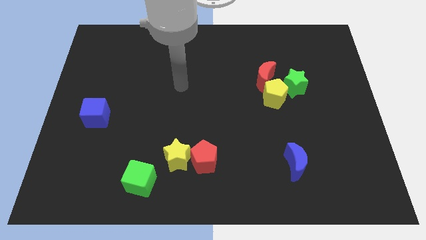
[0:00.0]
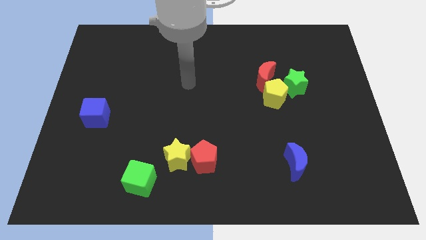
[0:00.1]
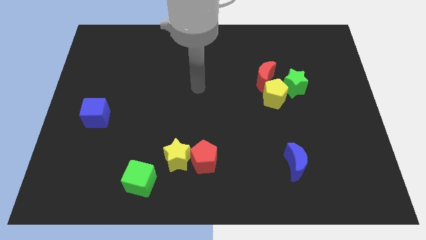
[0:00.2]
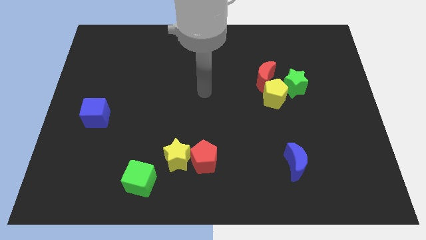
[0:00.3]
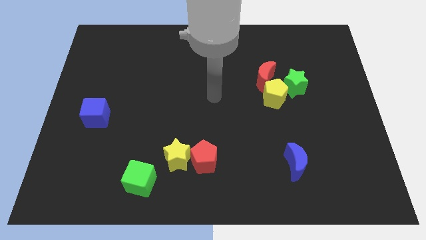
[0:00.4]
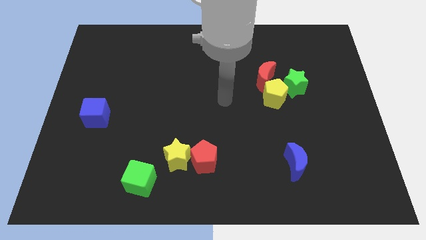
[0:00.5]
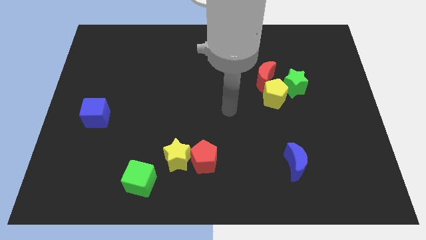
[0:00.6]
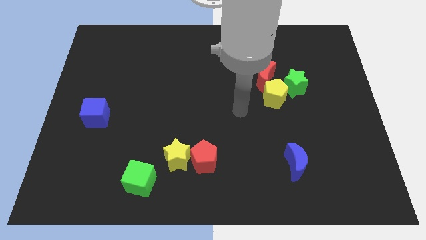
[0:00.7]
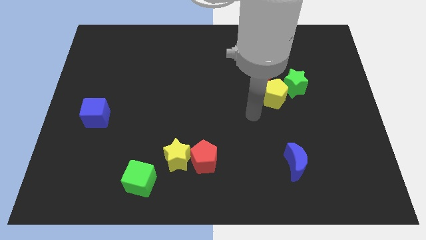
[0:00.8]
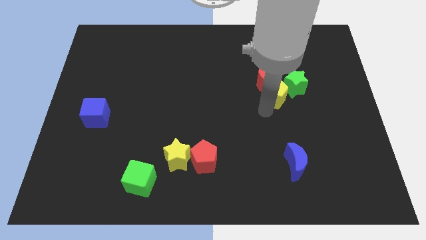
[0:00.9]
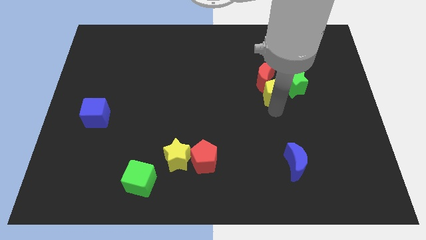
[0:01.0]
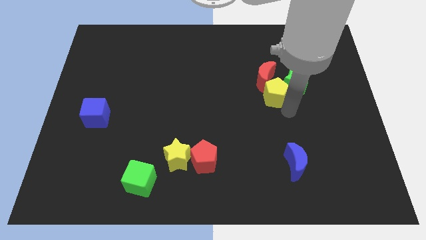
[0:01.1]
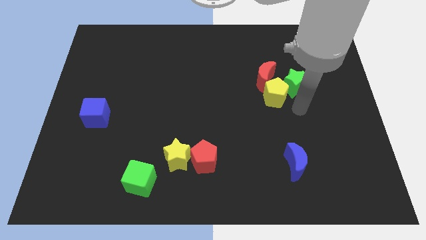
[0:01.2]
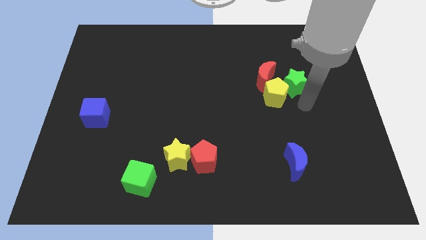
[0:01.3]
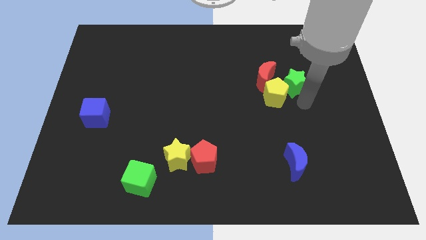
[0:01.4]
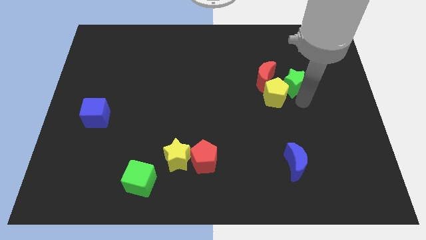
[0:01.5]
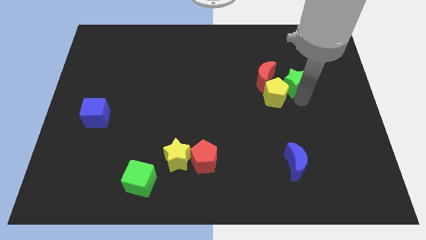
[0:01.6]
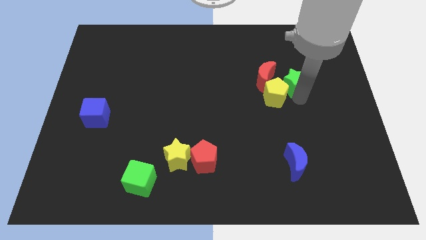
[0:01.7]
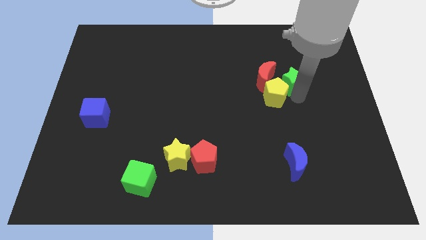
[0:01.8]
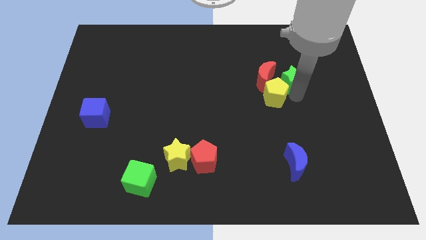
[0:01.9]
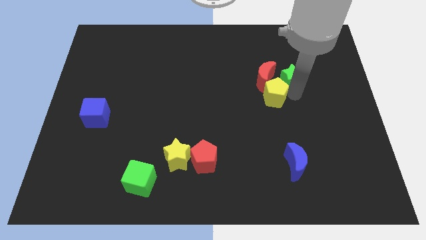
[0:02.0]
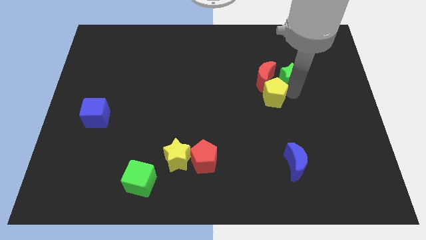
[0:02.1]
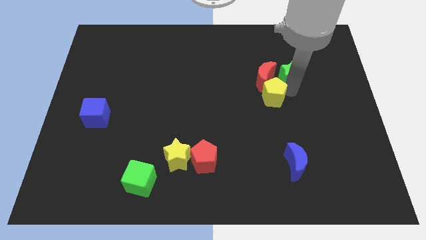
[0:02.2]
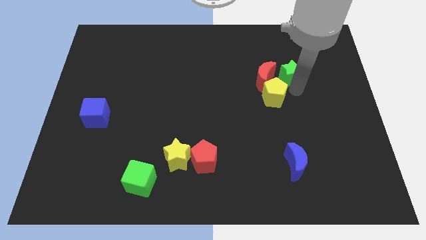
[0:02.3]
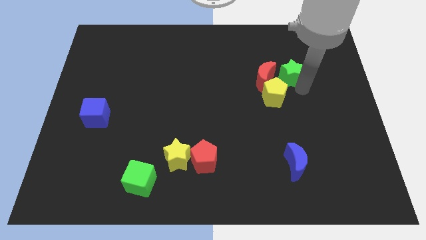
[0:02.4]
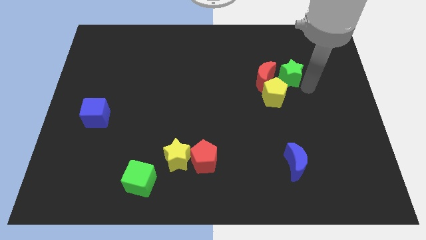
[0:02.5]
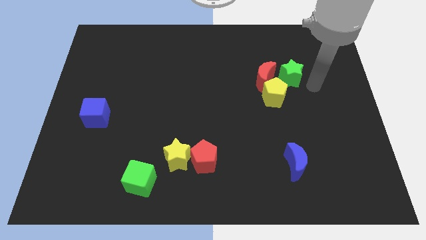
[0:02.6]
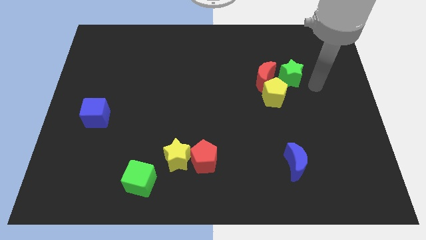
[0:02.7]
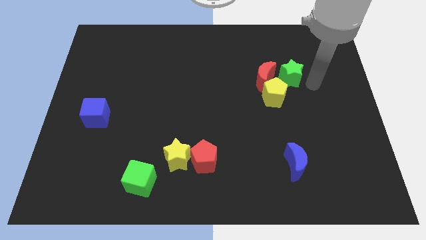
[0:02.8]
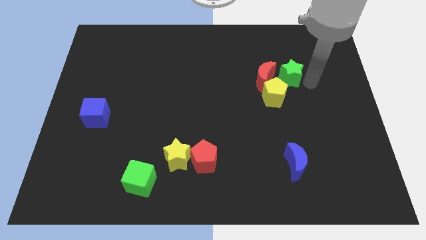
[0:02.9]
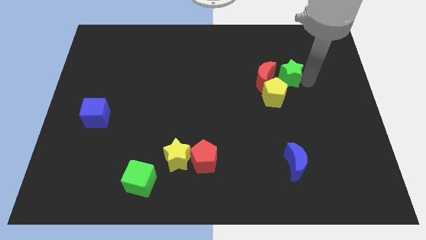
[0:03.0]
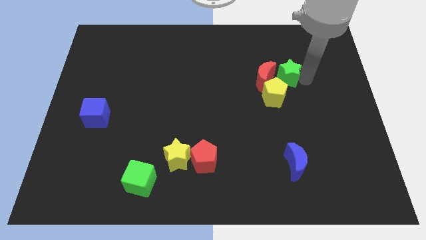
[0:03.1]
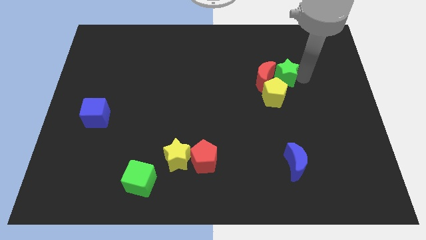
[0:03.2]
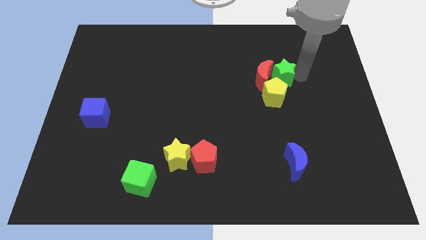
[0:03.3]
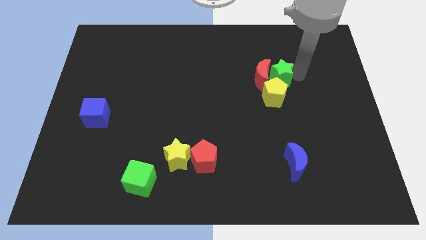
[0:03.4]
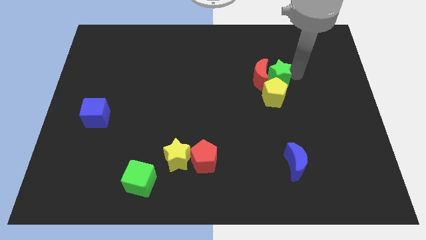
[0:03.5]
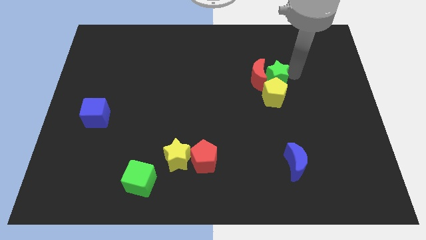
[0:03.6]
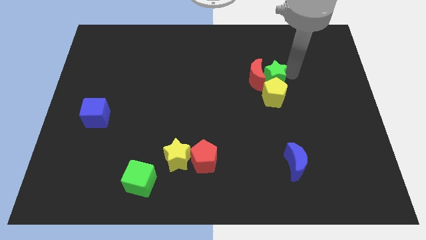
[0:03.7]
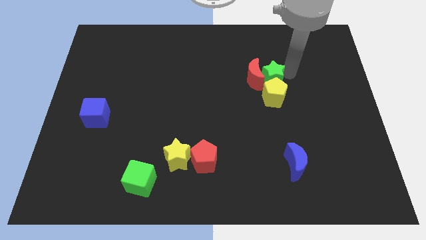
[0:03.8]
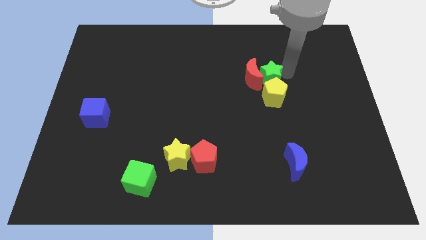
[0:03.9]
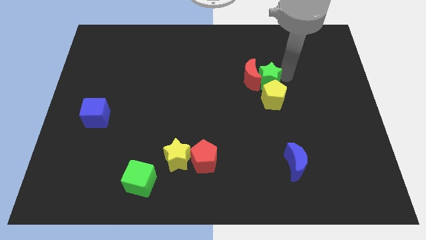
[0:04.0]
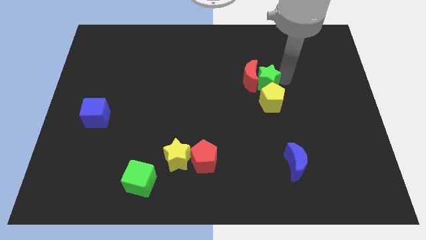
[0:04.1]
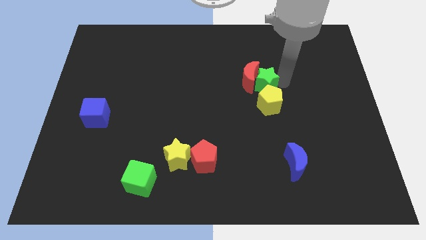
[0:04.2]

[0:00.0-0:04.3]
slightly move the green star to the left

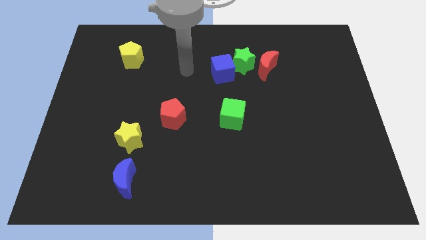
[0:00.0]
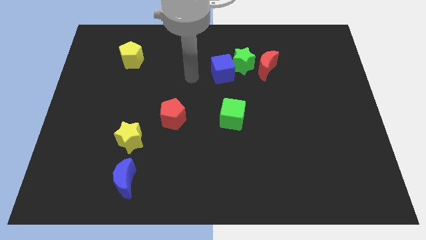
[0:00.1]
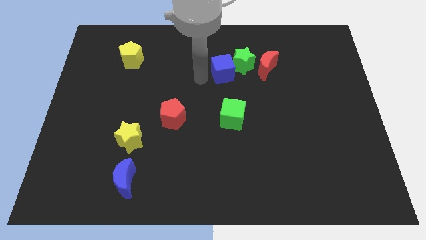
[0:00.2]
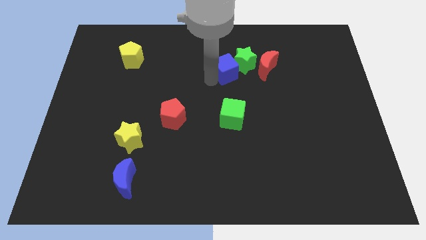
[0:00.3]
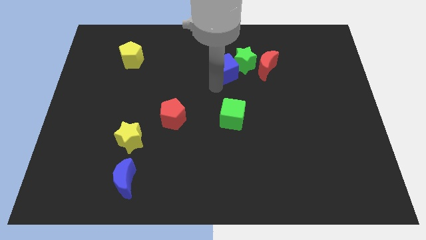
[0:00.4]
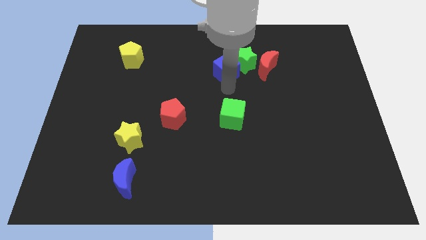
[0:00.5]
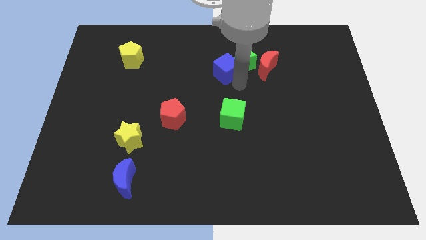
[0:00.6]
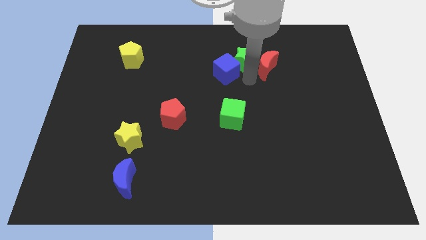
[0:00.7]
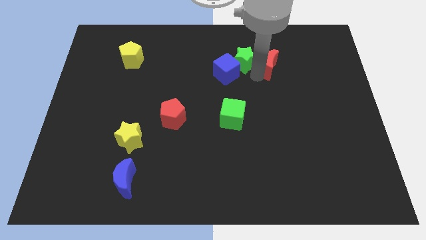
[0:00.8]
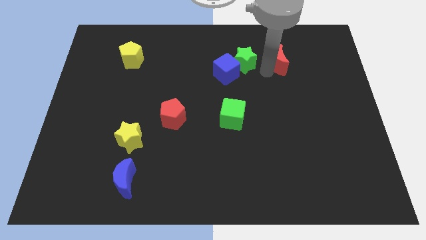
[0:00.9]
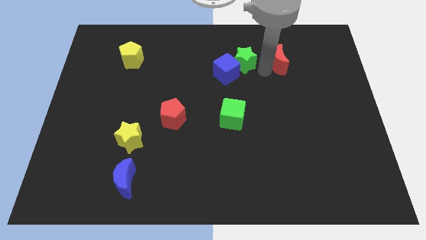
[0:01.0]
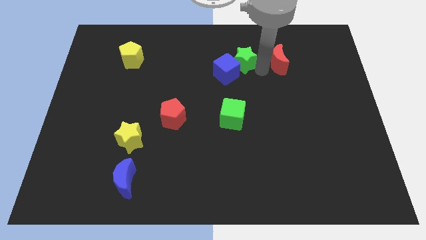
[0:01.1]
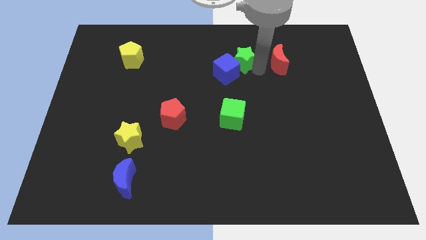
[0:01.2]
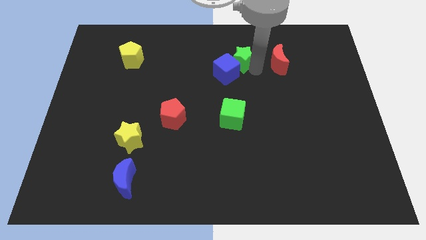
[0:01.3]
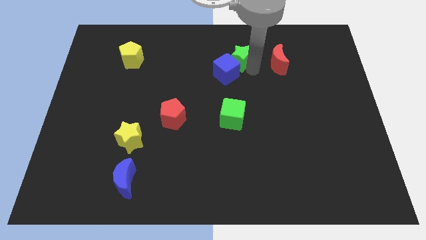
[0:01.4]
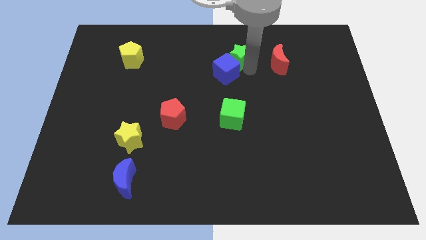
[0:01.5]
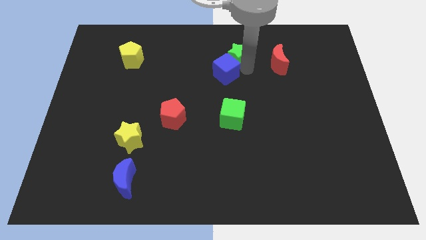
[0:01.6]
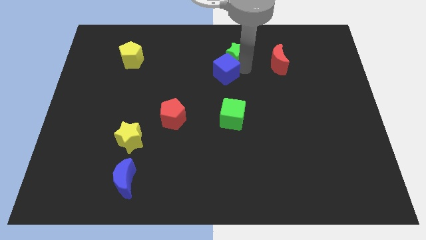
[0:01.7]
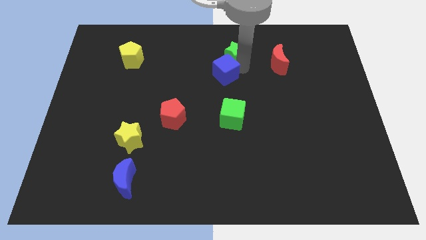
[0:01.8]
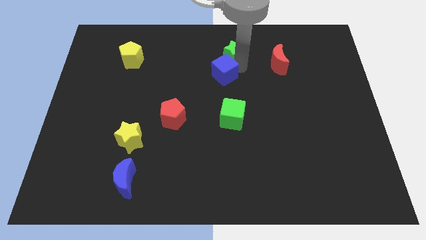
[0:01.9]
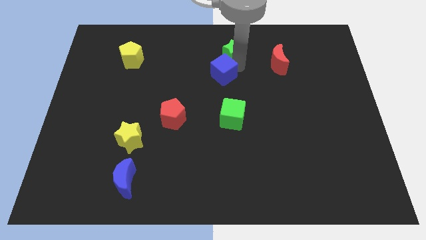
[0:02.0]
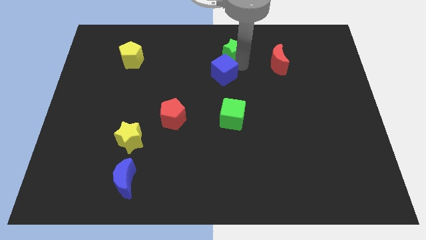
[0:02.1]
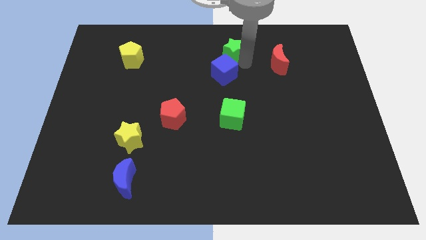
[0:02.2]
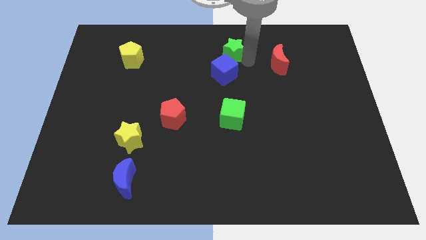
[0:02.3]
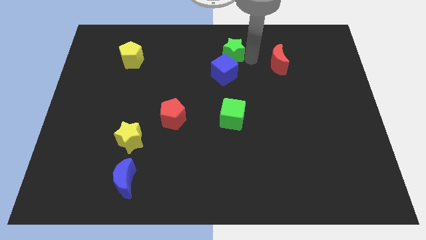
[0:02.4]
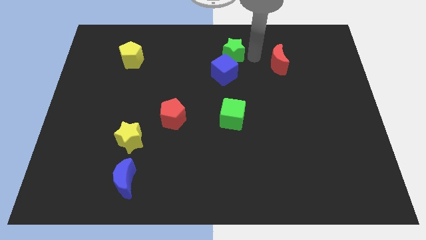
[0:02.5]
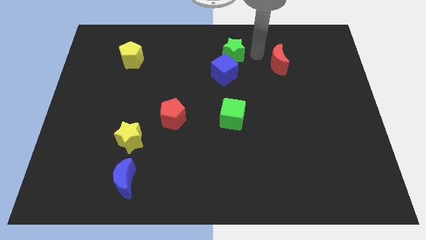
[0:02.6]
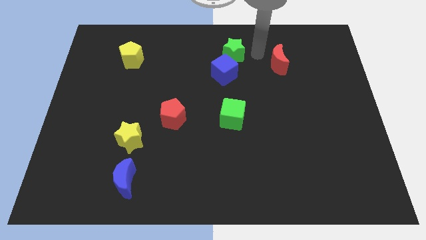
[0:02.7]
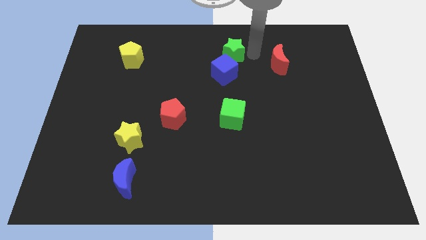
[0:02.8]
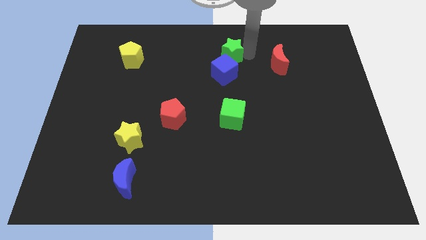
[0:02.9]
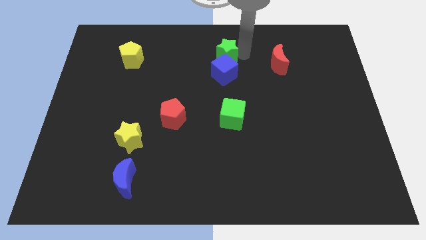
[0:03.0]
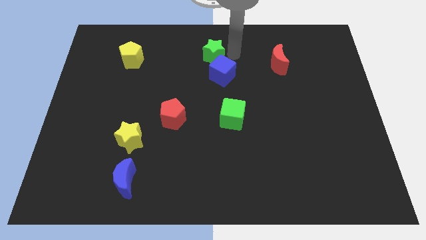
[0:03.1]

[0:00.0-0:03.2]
push the green star to the left somewhat

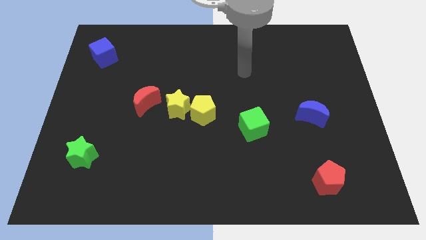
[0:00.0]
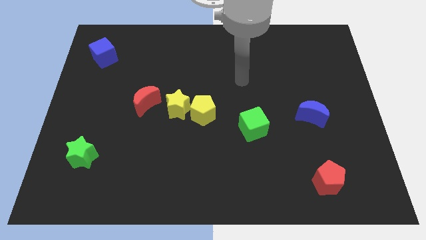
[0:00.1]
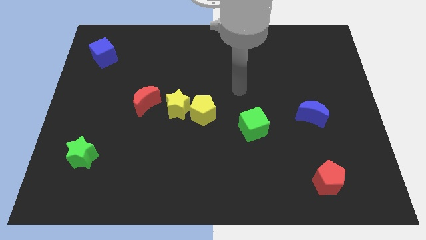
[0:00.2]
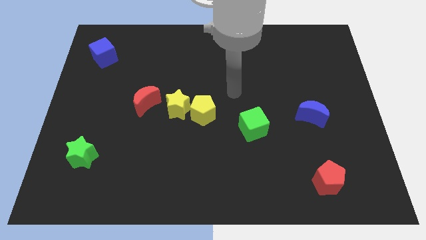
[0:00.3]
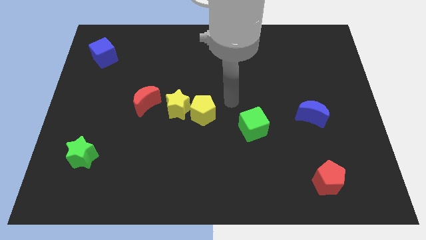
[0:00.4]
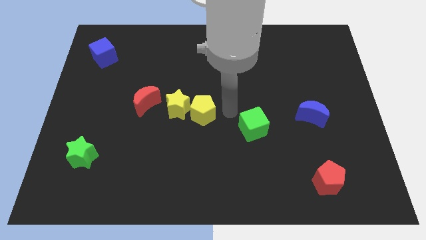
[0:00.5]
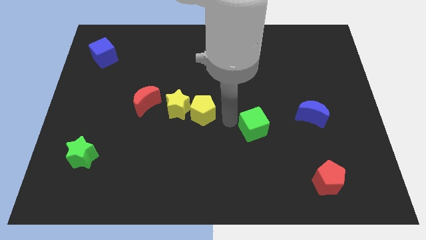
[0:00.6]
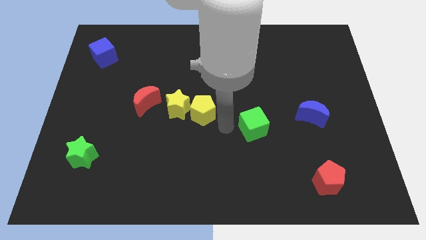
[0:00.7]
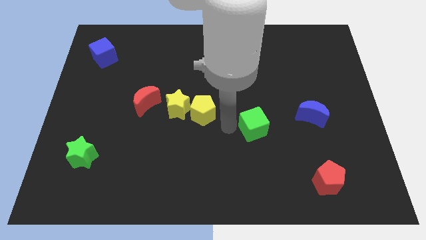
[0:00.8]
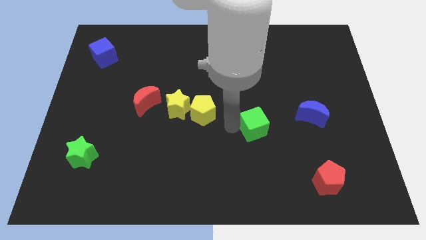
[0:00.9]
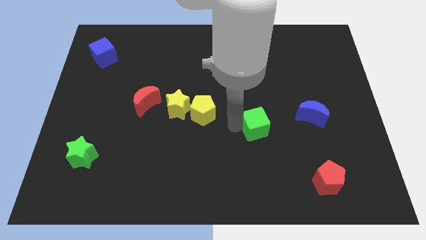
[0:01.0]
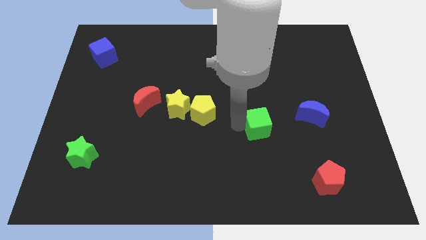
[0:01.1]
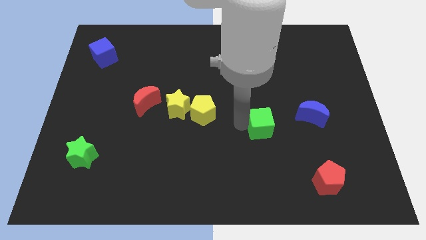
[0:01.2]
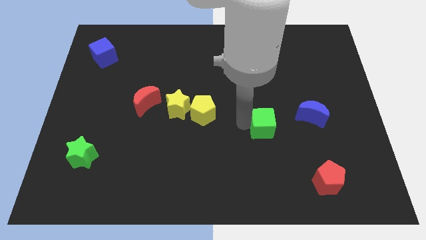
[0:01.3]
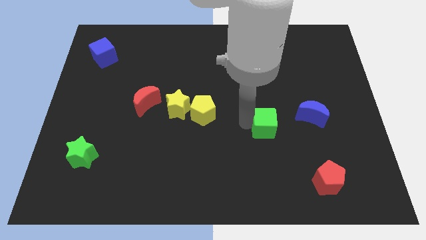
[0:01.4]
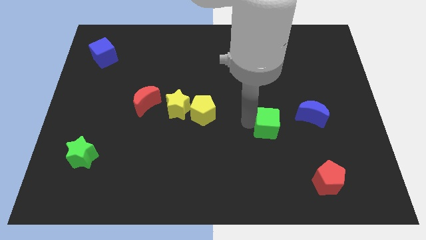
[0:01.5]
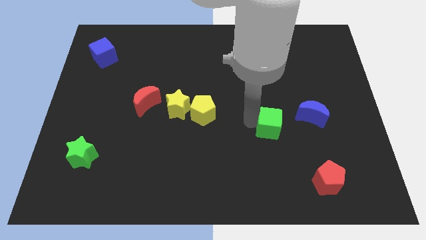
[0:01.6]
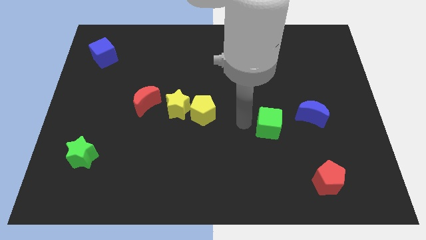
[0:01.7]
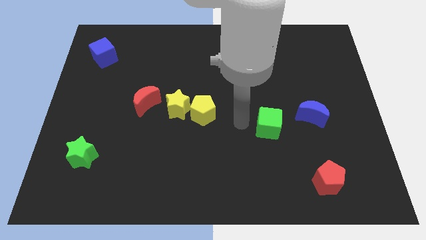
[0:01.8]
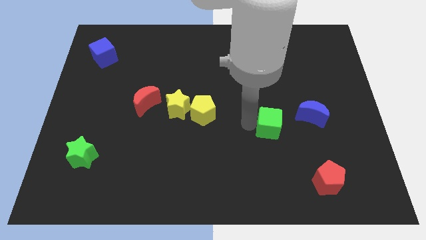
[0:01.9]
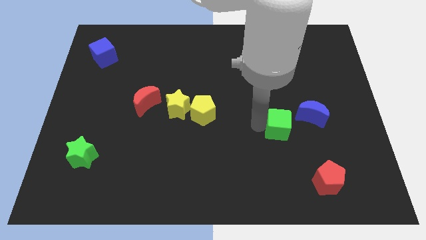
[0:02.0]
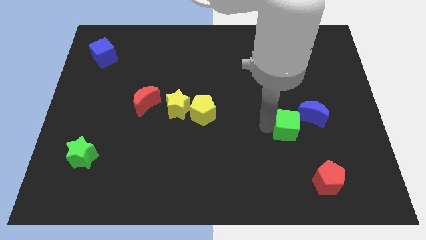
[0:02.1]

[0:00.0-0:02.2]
slightly move the green cube to the right
